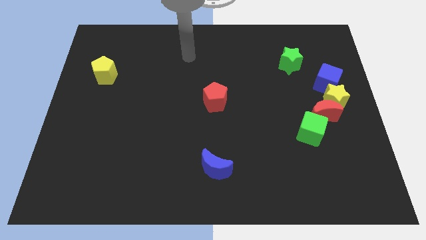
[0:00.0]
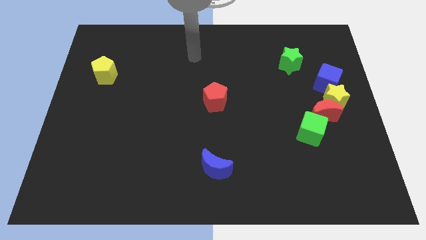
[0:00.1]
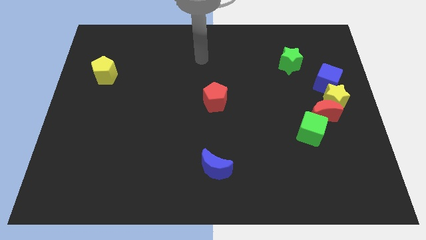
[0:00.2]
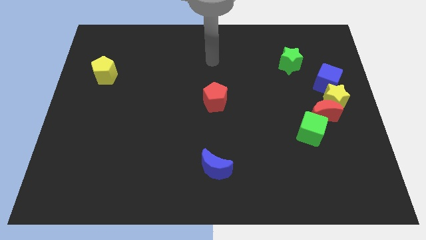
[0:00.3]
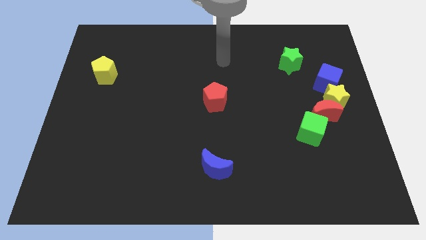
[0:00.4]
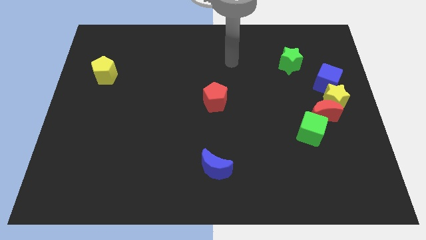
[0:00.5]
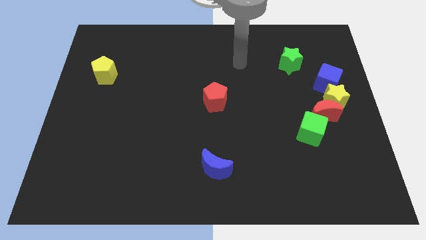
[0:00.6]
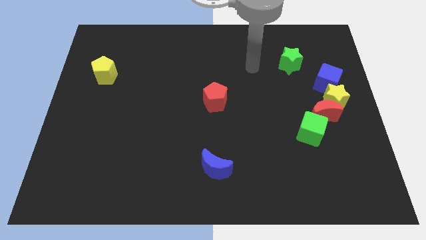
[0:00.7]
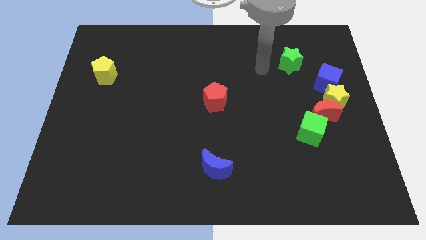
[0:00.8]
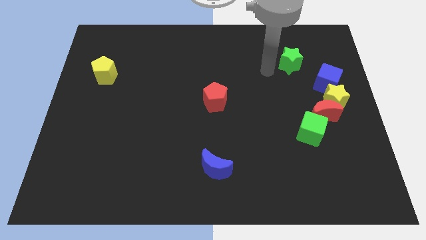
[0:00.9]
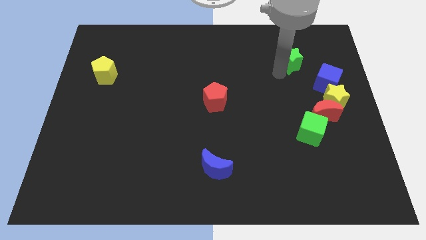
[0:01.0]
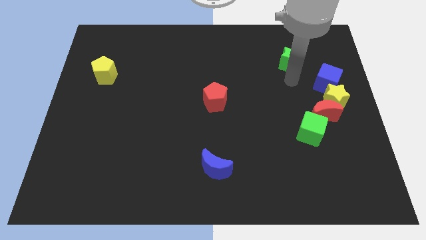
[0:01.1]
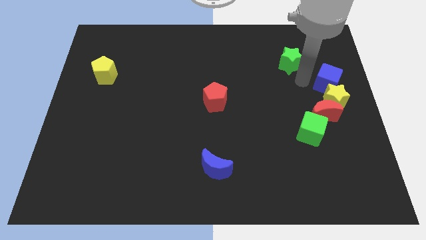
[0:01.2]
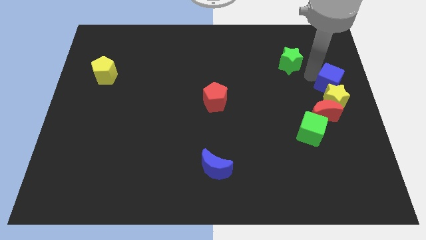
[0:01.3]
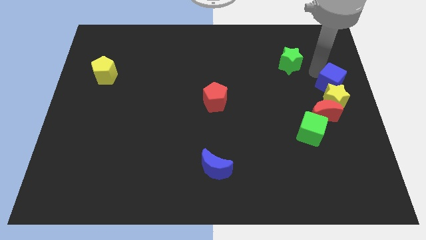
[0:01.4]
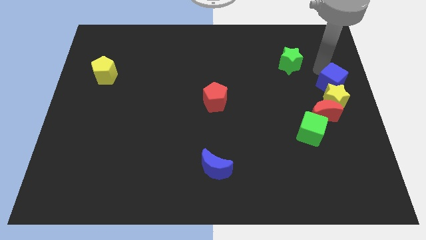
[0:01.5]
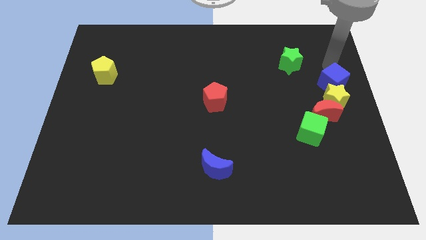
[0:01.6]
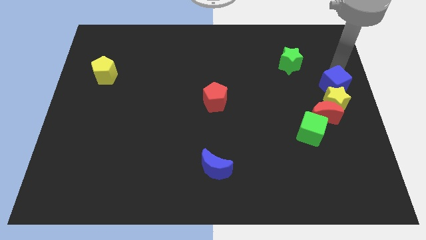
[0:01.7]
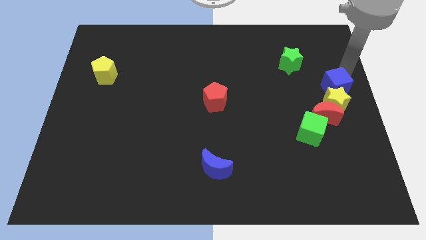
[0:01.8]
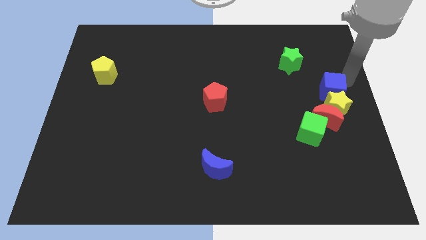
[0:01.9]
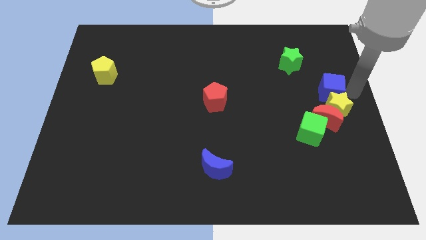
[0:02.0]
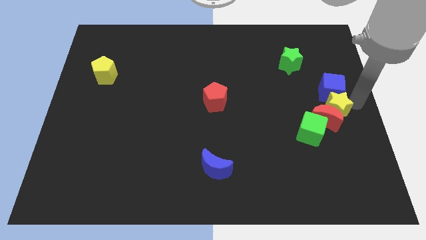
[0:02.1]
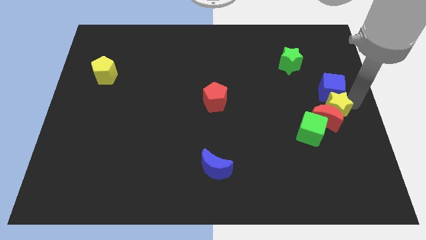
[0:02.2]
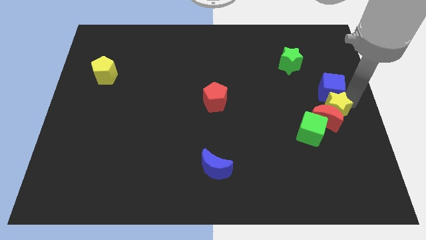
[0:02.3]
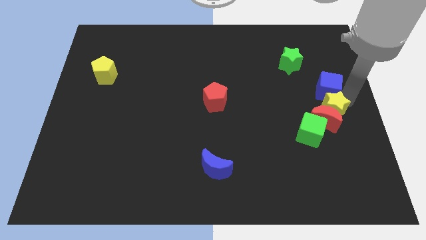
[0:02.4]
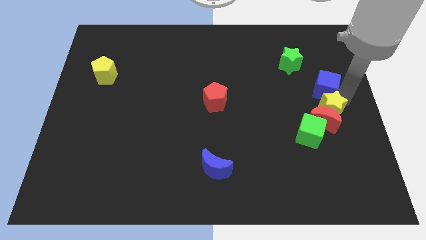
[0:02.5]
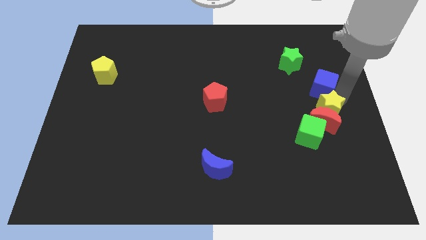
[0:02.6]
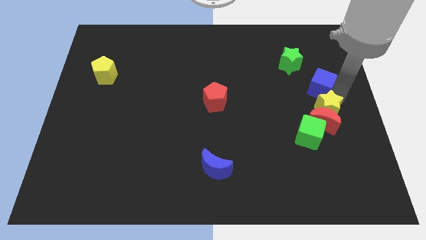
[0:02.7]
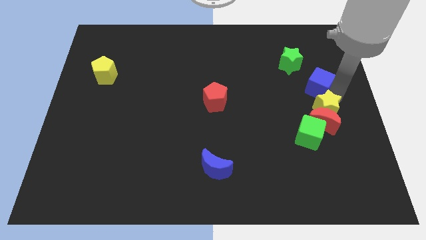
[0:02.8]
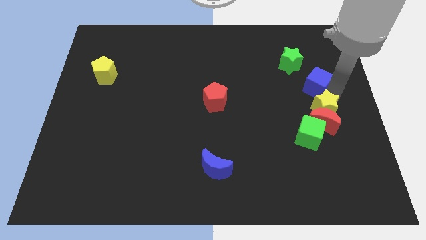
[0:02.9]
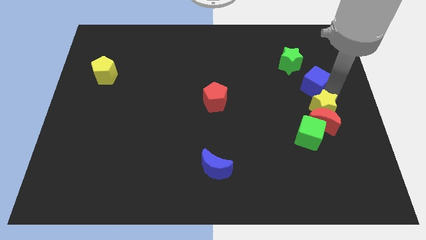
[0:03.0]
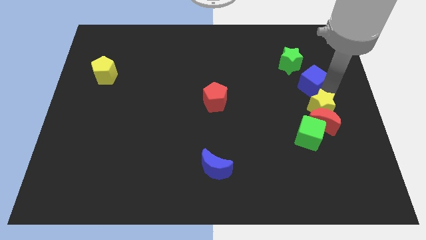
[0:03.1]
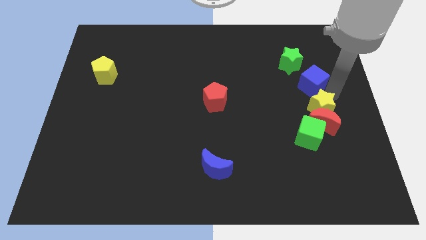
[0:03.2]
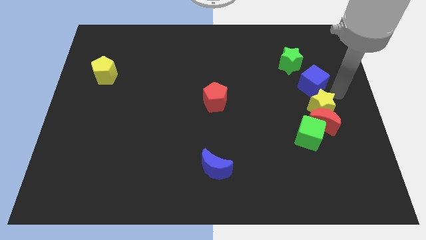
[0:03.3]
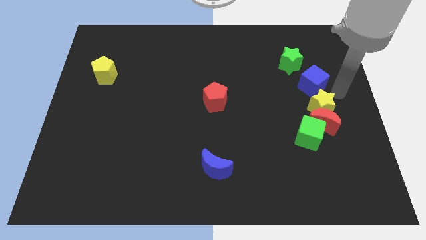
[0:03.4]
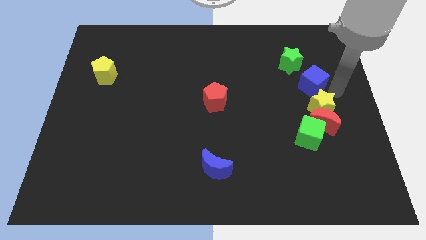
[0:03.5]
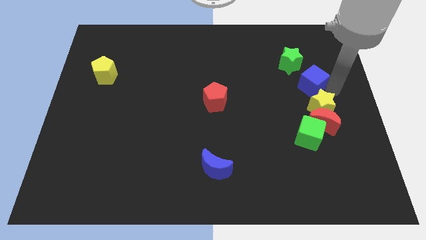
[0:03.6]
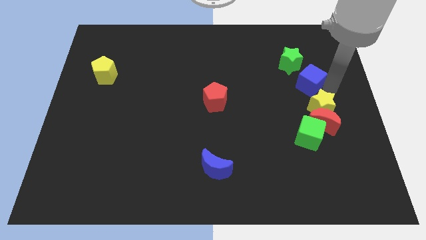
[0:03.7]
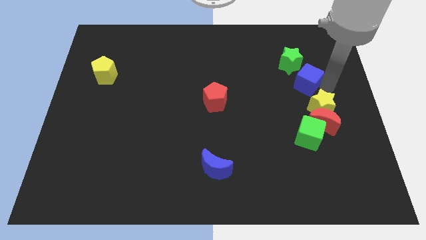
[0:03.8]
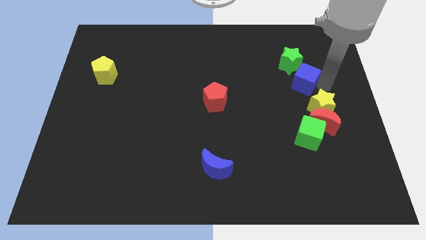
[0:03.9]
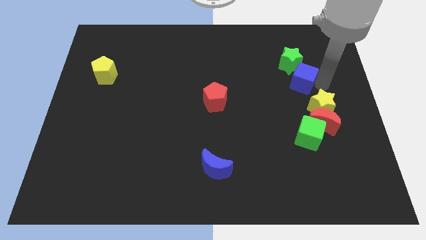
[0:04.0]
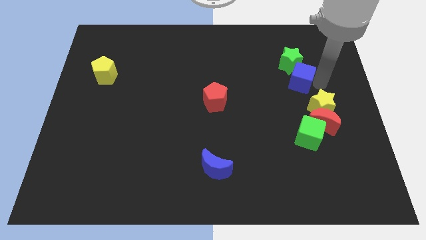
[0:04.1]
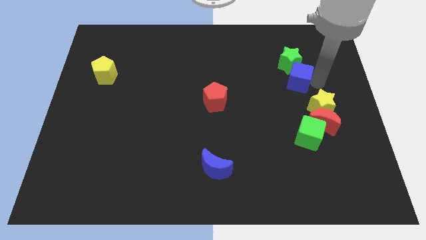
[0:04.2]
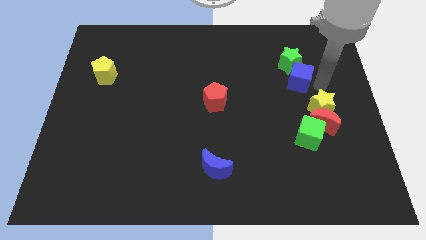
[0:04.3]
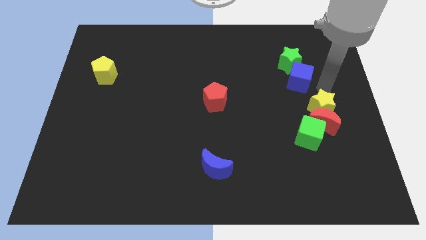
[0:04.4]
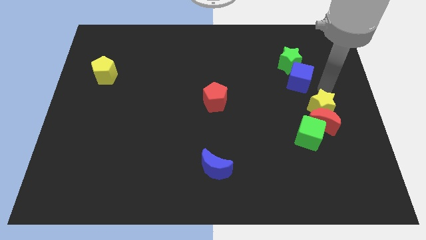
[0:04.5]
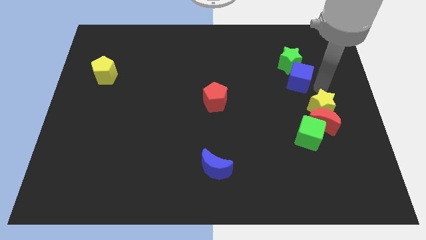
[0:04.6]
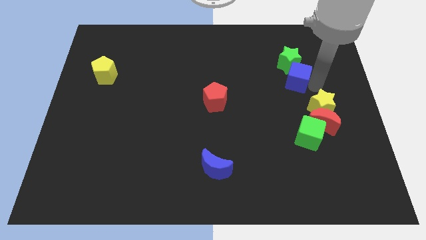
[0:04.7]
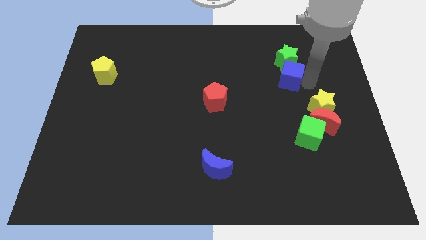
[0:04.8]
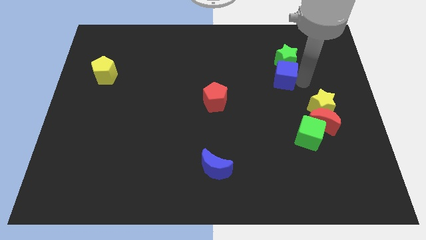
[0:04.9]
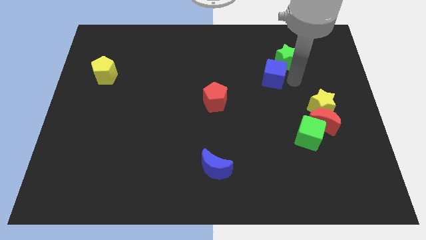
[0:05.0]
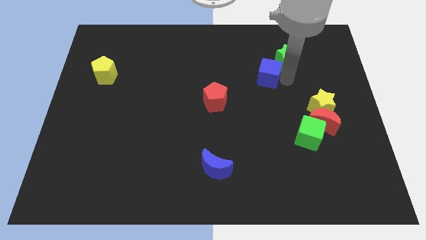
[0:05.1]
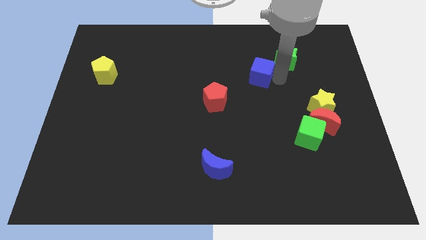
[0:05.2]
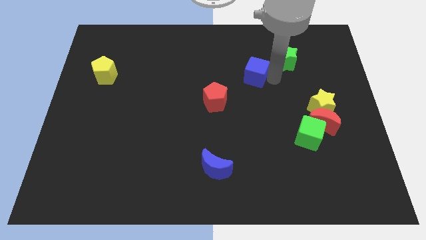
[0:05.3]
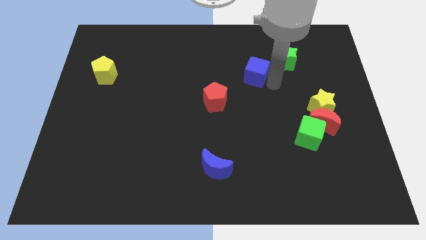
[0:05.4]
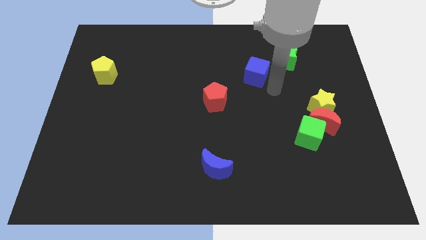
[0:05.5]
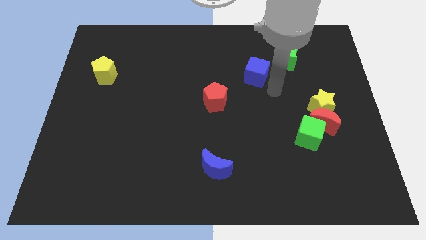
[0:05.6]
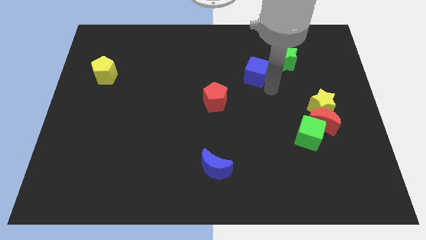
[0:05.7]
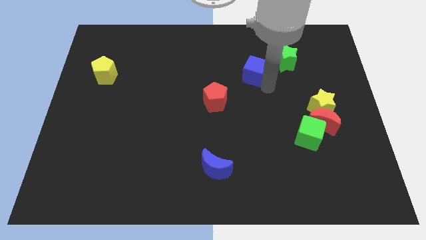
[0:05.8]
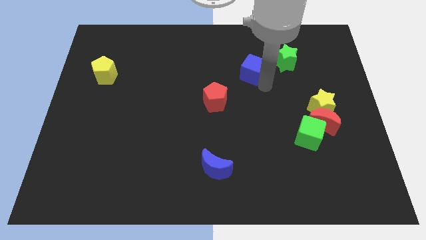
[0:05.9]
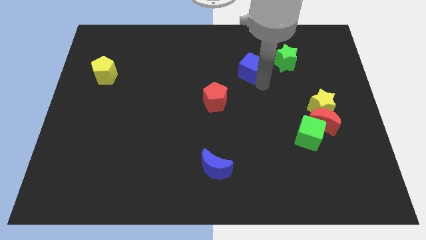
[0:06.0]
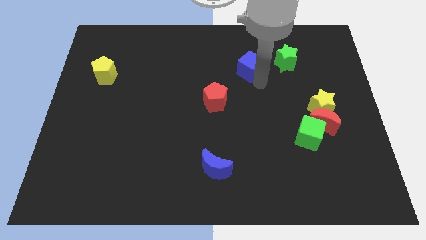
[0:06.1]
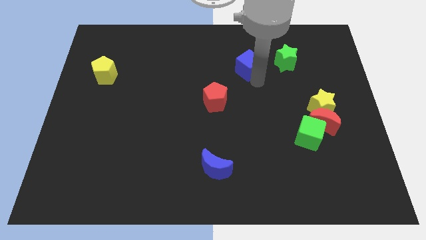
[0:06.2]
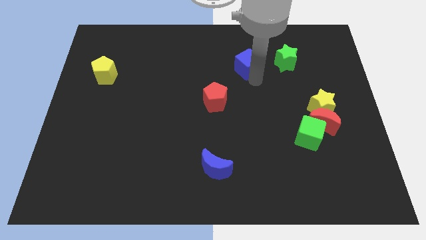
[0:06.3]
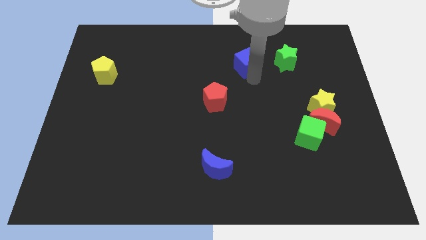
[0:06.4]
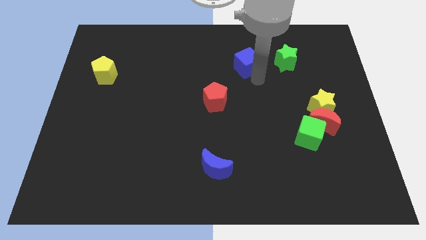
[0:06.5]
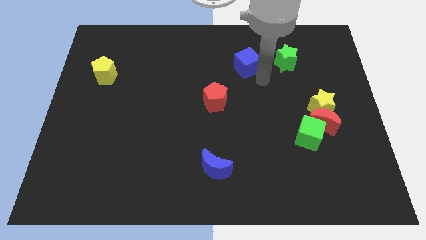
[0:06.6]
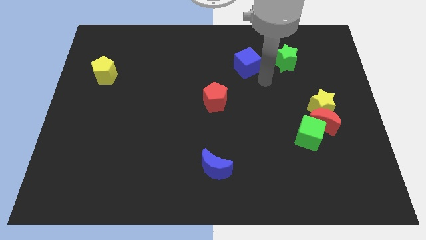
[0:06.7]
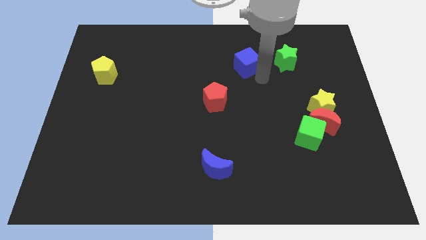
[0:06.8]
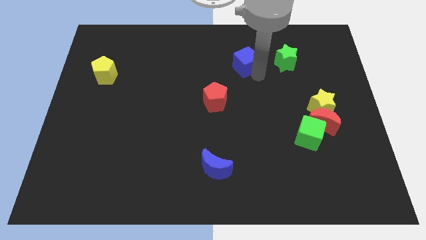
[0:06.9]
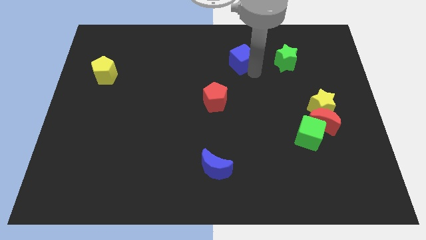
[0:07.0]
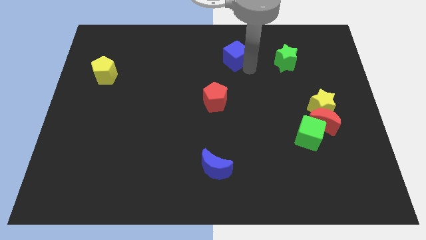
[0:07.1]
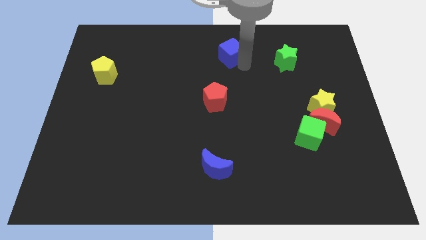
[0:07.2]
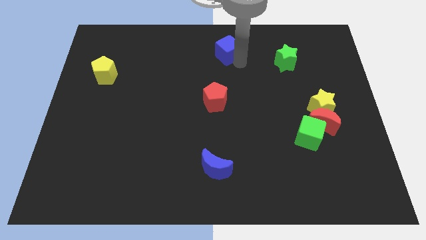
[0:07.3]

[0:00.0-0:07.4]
slide the blue cube to the towards your base
